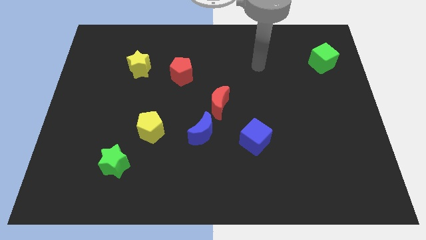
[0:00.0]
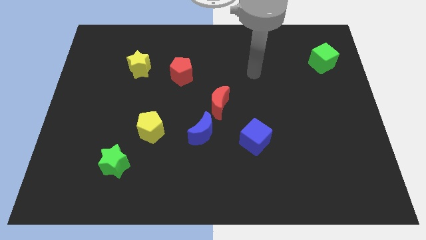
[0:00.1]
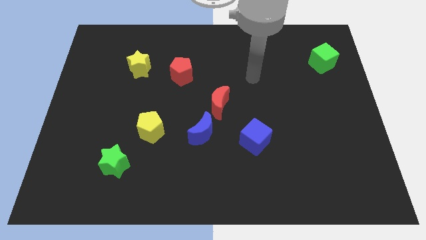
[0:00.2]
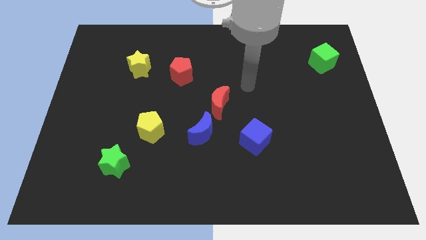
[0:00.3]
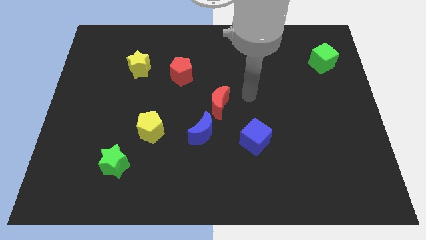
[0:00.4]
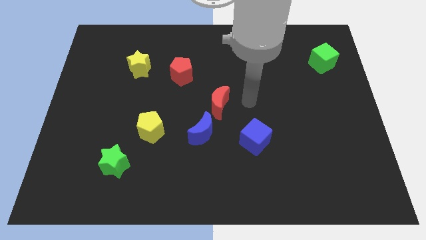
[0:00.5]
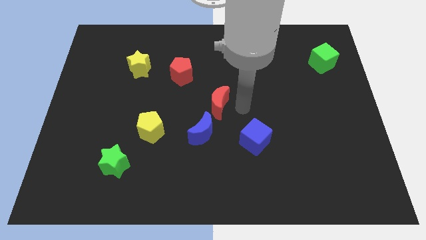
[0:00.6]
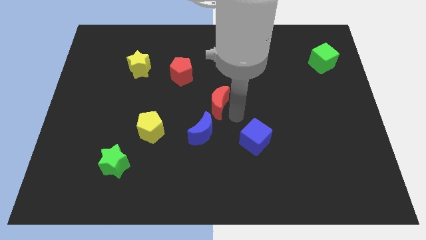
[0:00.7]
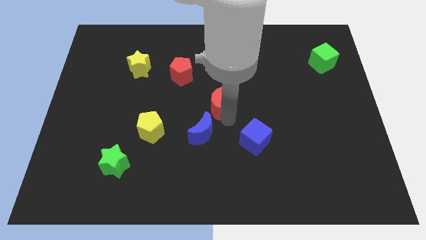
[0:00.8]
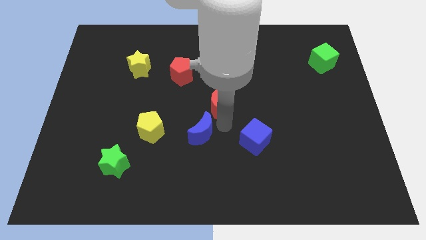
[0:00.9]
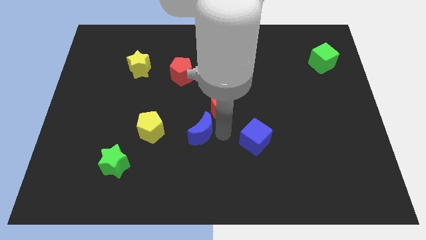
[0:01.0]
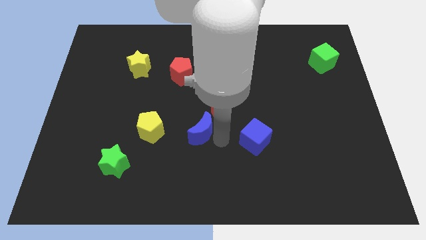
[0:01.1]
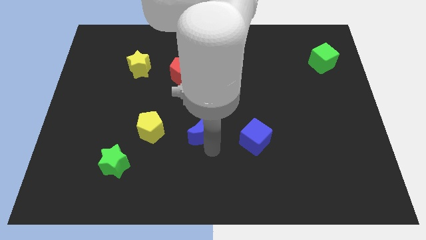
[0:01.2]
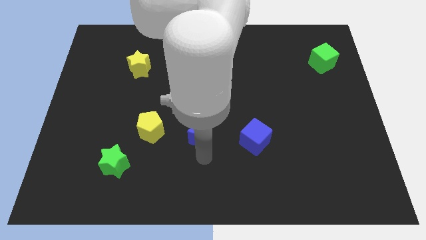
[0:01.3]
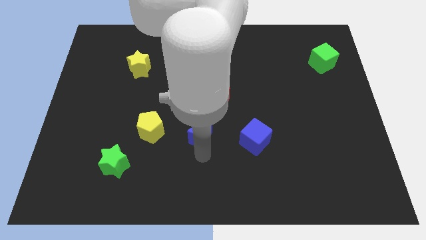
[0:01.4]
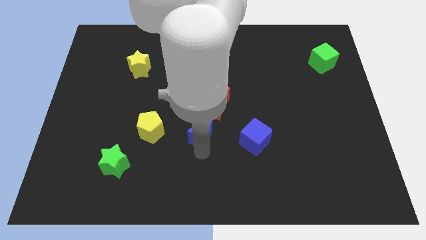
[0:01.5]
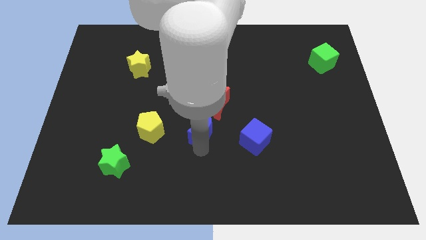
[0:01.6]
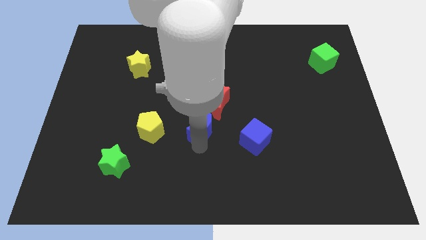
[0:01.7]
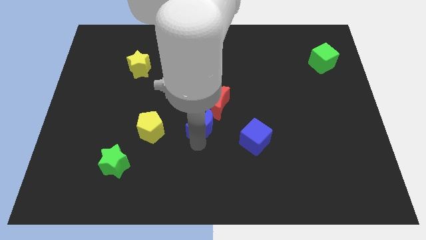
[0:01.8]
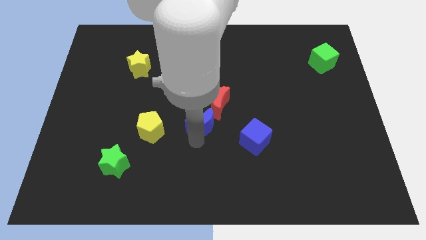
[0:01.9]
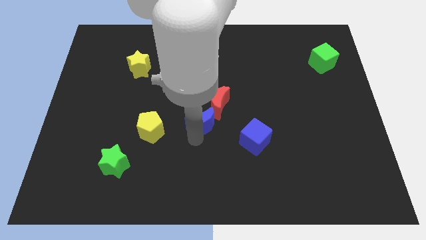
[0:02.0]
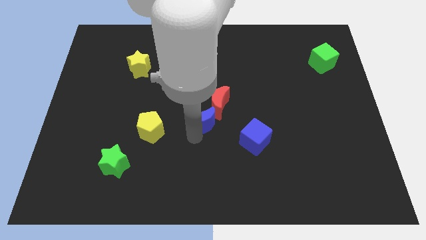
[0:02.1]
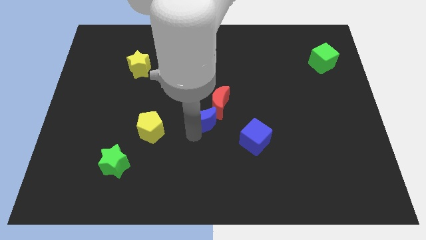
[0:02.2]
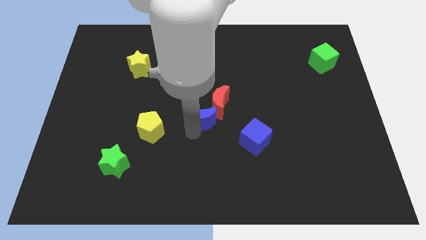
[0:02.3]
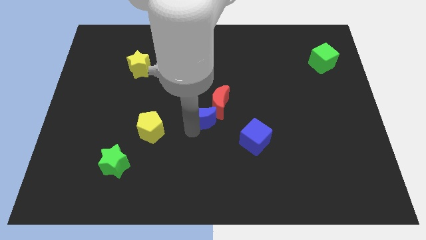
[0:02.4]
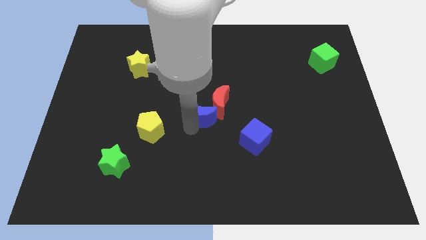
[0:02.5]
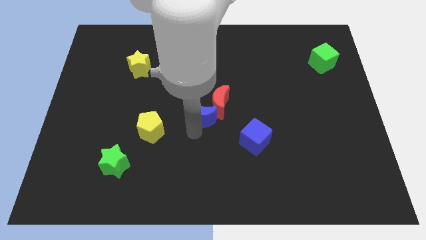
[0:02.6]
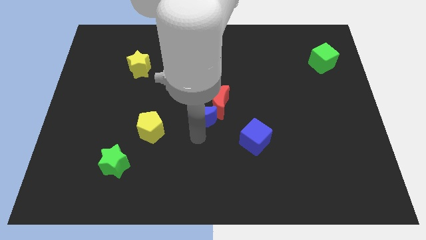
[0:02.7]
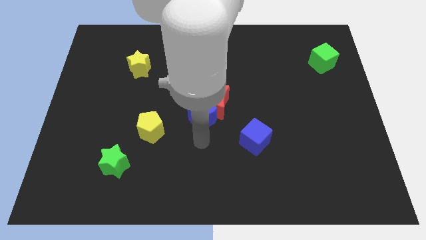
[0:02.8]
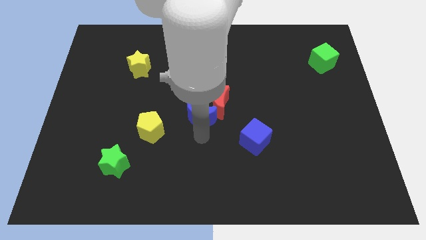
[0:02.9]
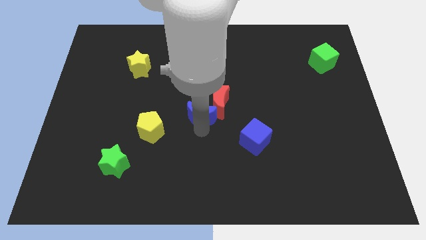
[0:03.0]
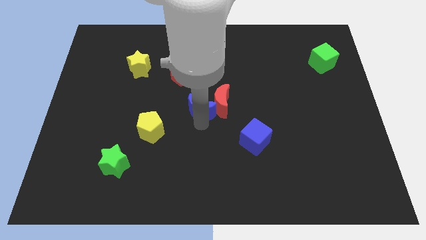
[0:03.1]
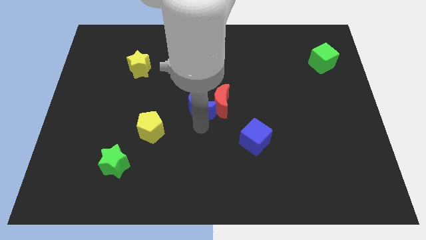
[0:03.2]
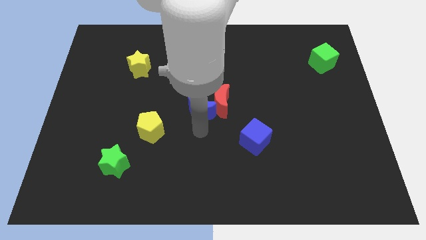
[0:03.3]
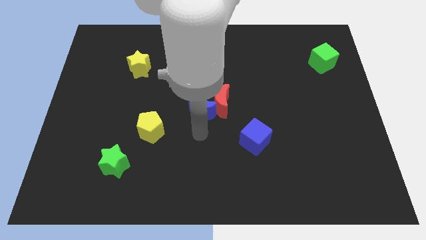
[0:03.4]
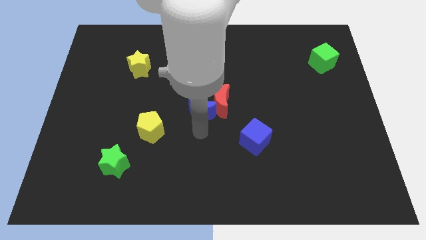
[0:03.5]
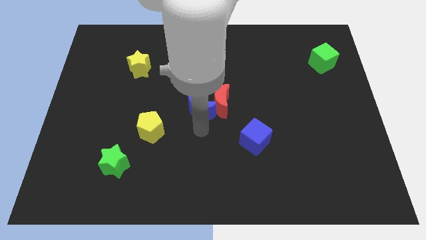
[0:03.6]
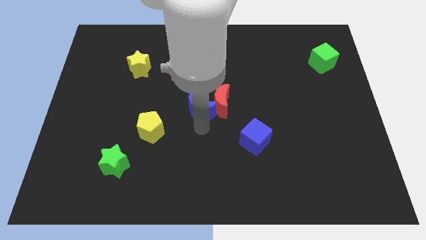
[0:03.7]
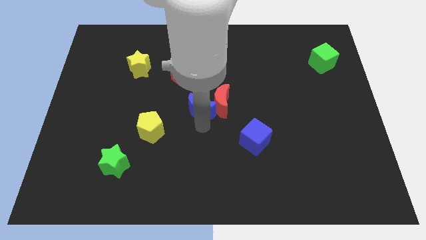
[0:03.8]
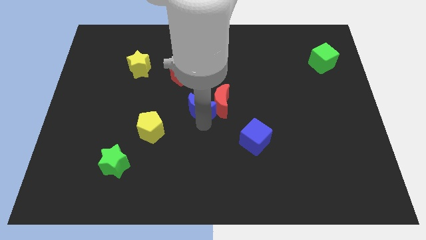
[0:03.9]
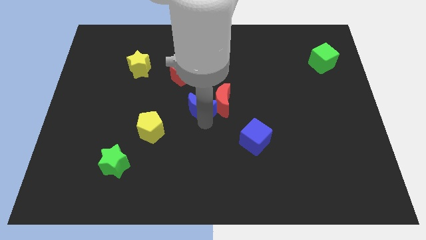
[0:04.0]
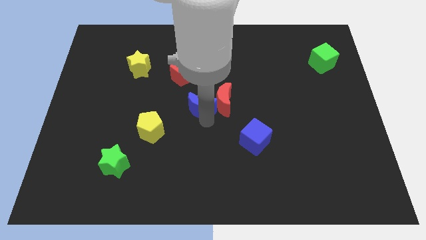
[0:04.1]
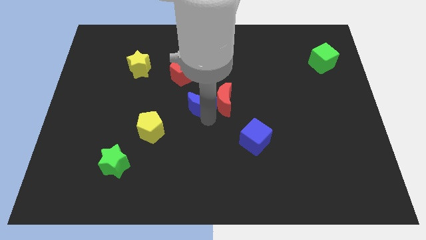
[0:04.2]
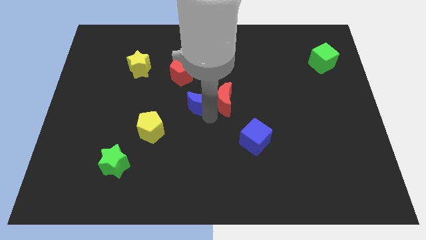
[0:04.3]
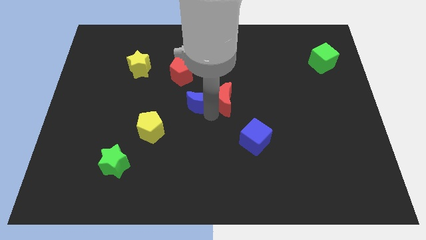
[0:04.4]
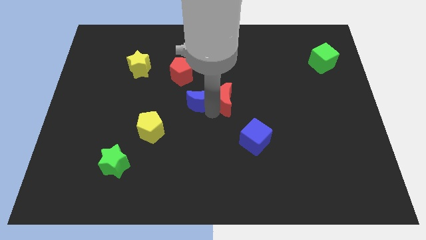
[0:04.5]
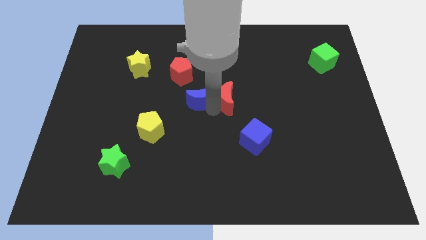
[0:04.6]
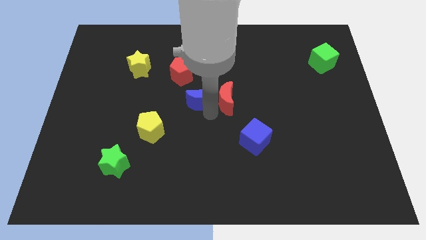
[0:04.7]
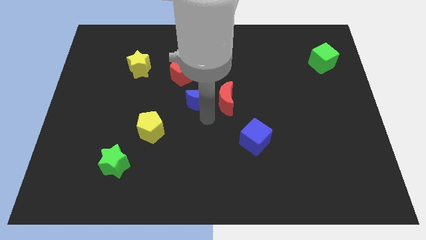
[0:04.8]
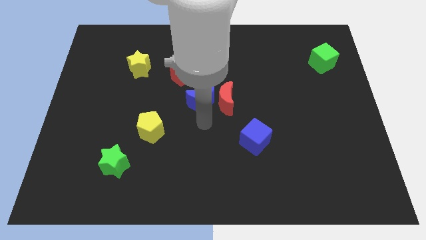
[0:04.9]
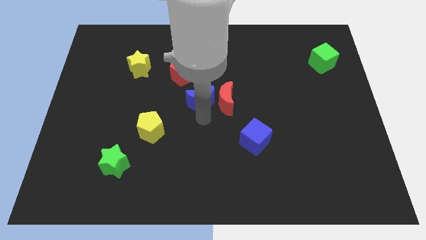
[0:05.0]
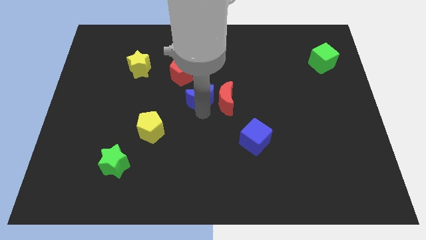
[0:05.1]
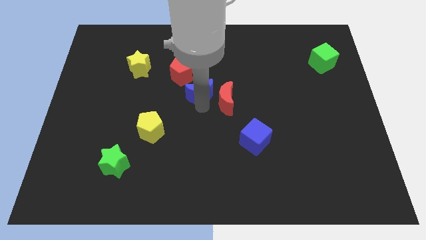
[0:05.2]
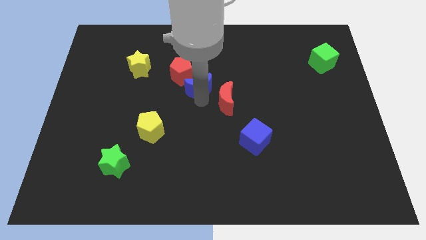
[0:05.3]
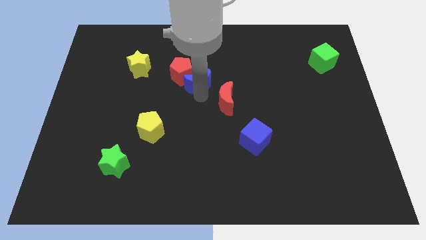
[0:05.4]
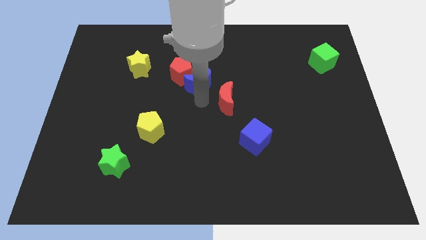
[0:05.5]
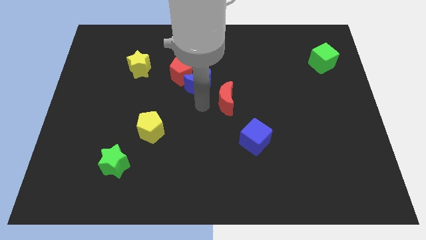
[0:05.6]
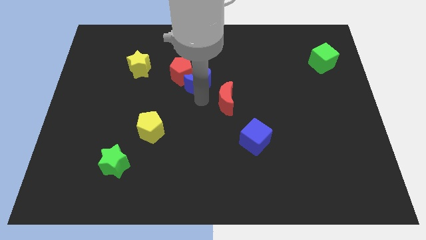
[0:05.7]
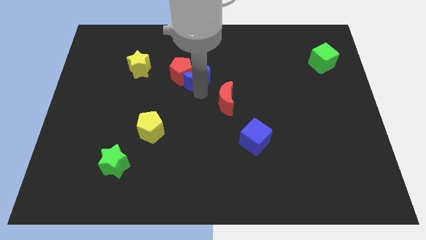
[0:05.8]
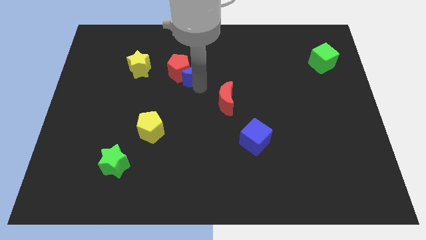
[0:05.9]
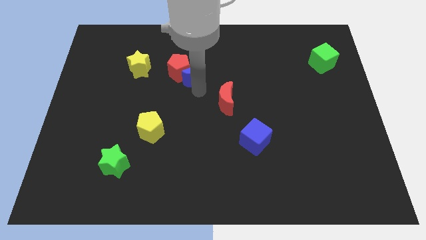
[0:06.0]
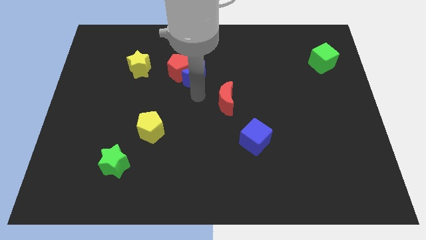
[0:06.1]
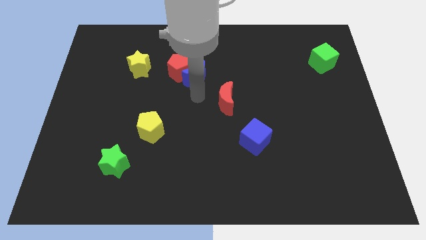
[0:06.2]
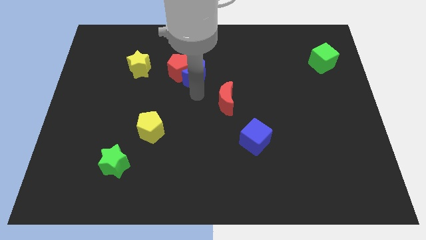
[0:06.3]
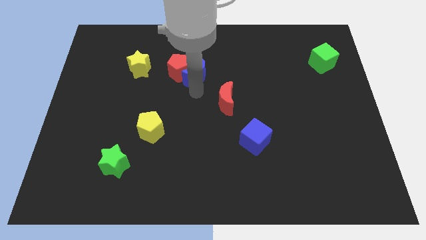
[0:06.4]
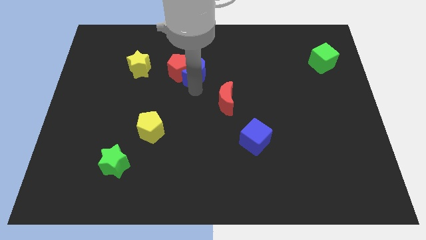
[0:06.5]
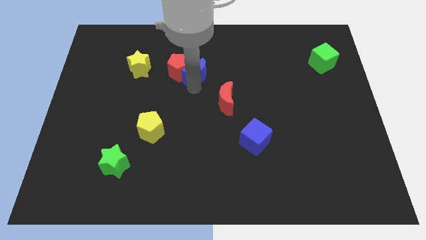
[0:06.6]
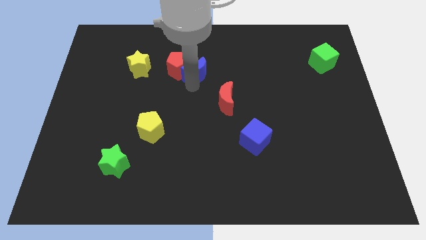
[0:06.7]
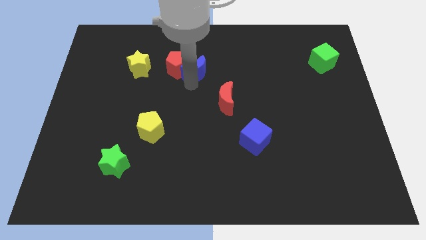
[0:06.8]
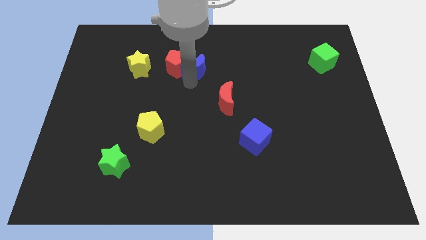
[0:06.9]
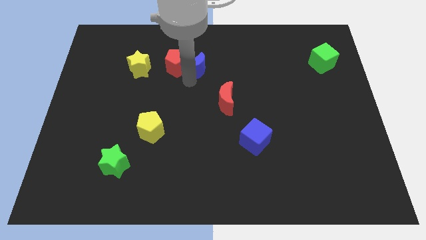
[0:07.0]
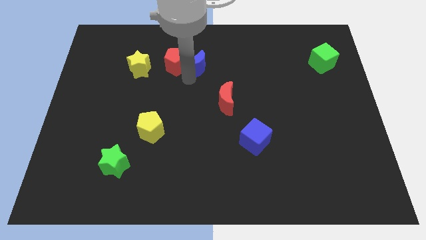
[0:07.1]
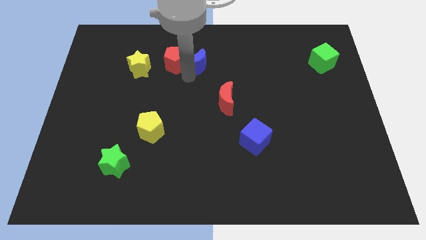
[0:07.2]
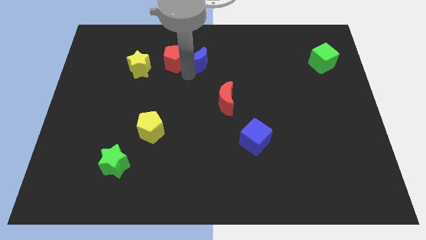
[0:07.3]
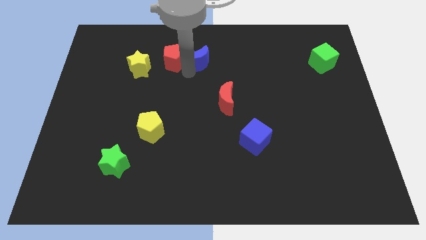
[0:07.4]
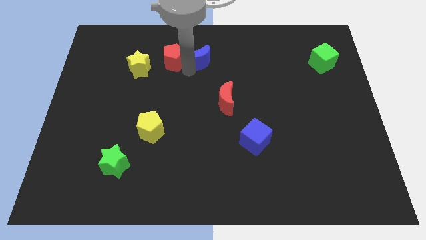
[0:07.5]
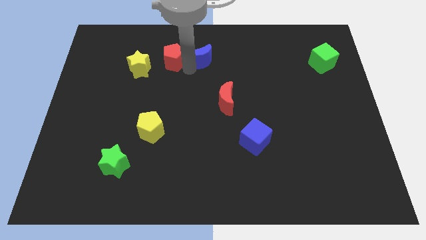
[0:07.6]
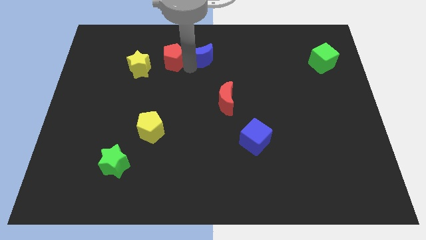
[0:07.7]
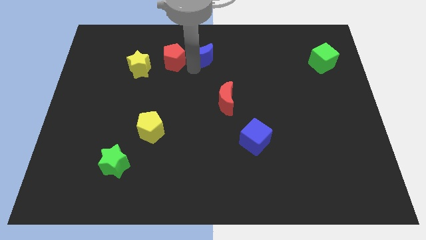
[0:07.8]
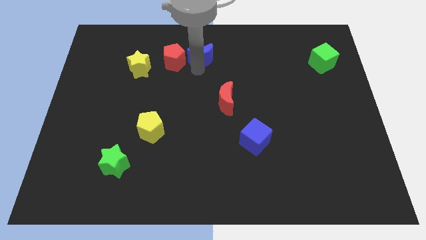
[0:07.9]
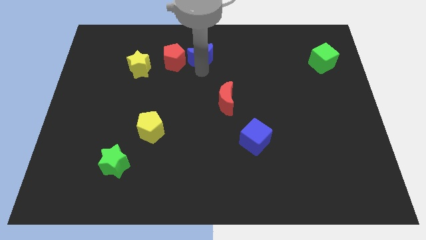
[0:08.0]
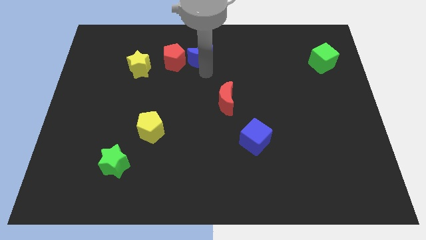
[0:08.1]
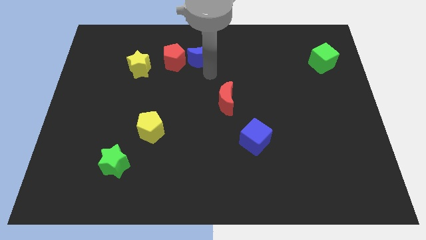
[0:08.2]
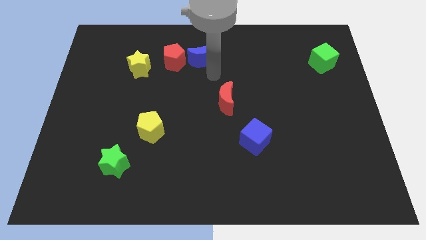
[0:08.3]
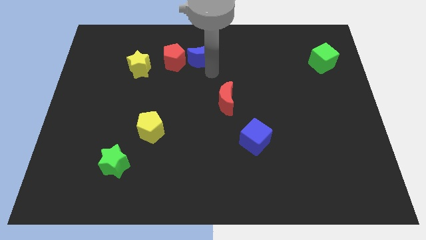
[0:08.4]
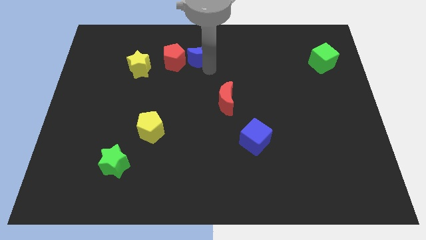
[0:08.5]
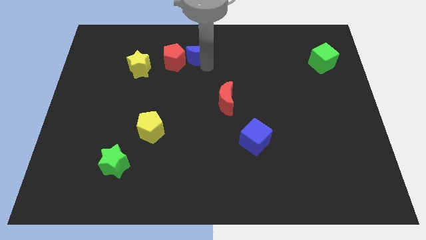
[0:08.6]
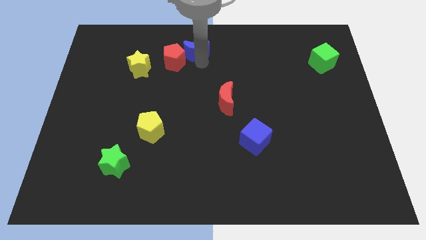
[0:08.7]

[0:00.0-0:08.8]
push the blue moon to the top side
